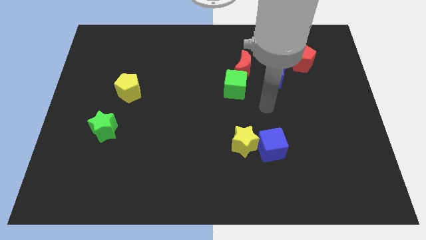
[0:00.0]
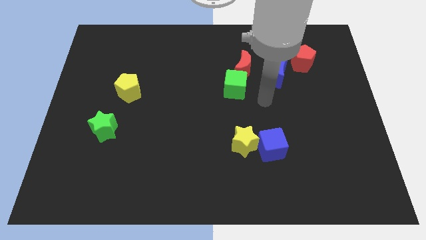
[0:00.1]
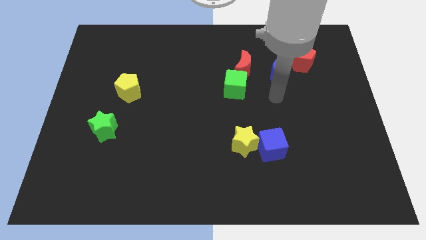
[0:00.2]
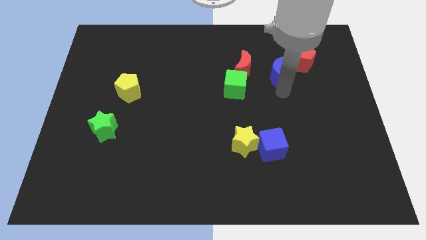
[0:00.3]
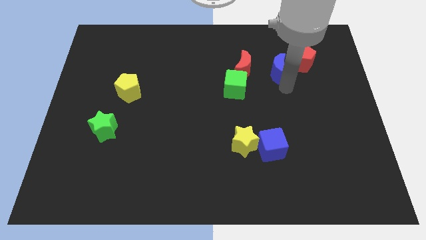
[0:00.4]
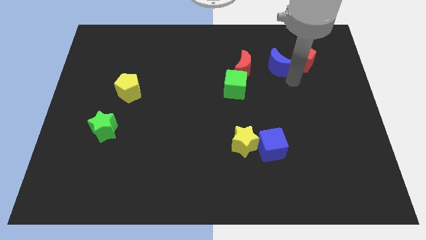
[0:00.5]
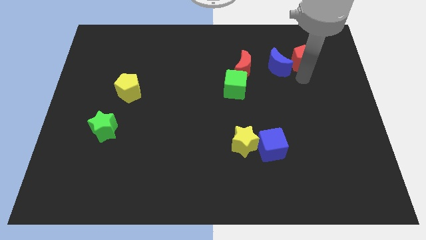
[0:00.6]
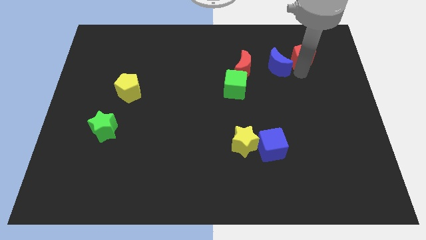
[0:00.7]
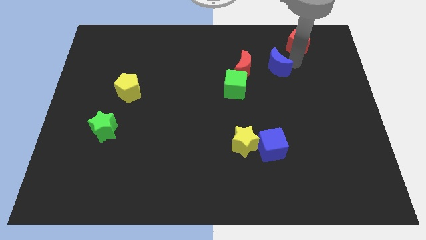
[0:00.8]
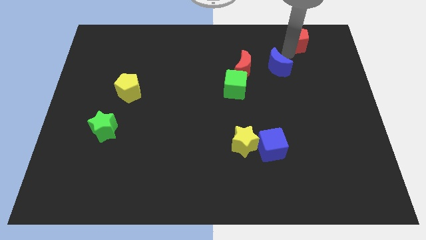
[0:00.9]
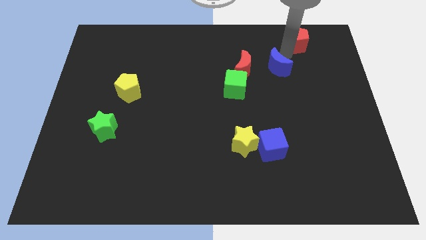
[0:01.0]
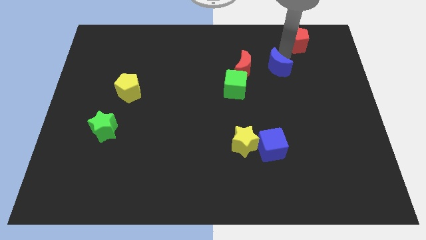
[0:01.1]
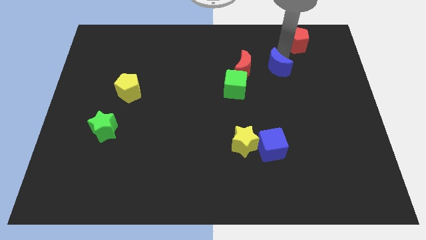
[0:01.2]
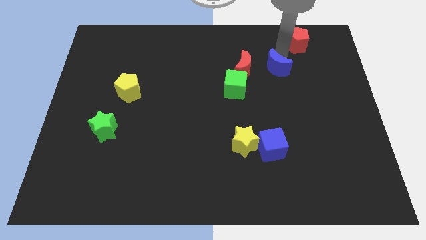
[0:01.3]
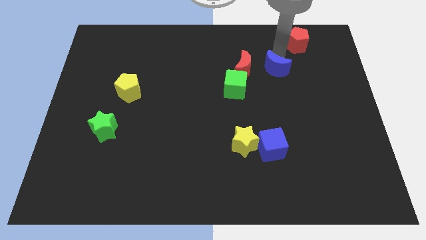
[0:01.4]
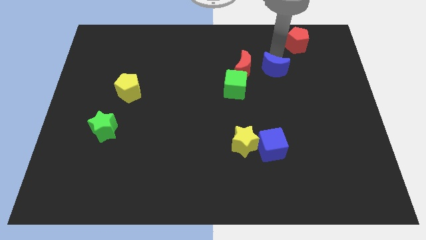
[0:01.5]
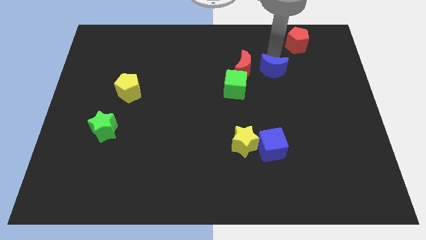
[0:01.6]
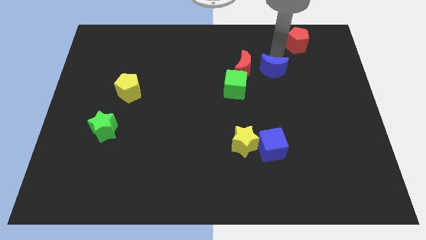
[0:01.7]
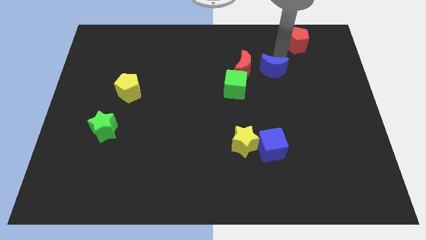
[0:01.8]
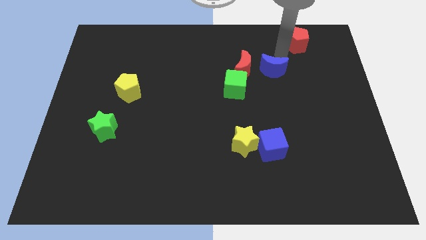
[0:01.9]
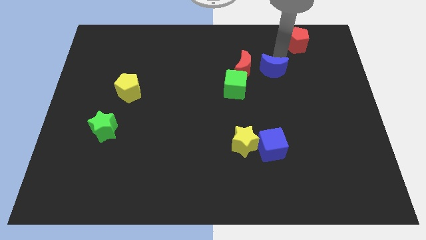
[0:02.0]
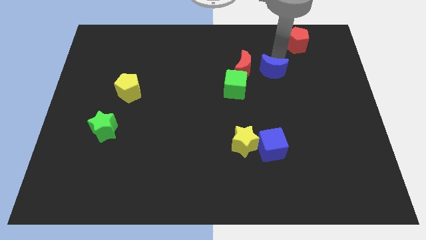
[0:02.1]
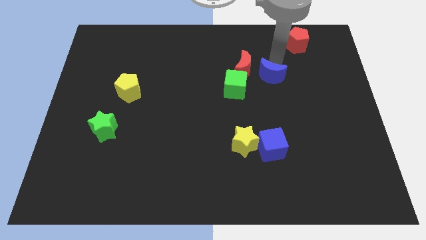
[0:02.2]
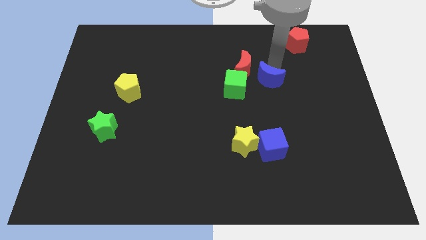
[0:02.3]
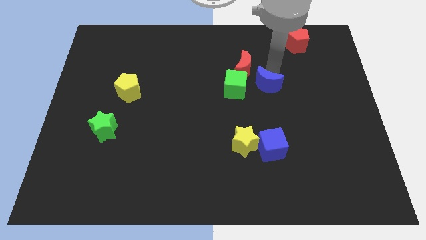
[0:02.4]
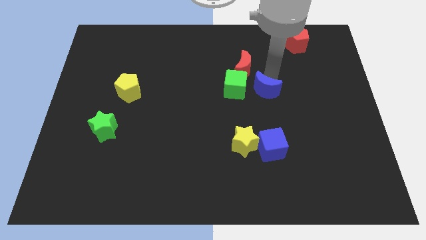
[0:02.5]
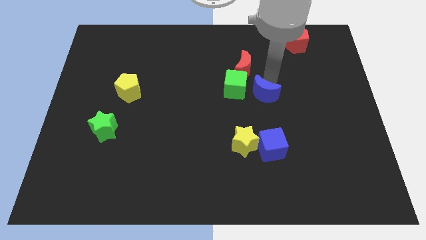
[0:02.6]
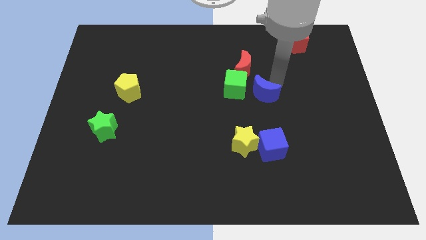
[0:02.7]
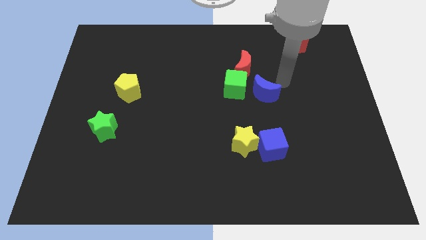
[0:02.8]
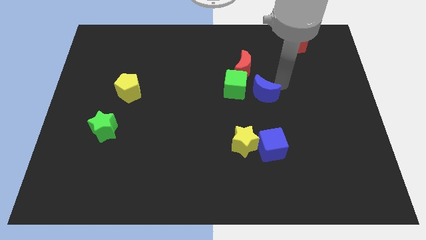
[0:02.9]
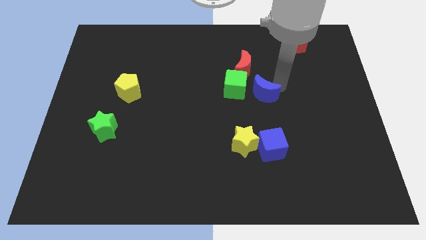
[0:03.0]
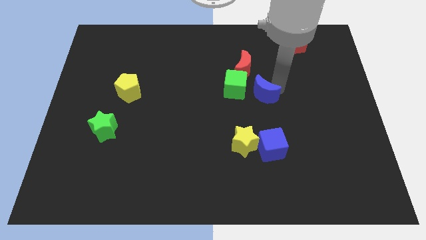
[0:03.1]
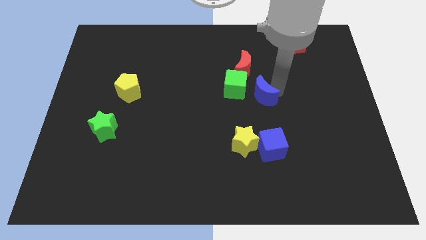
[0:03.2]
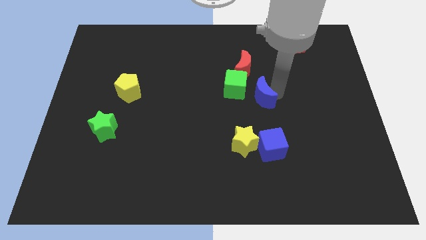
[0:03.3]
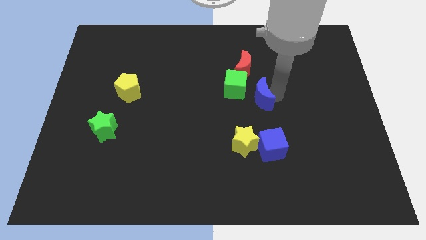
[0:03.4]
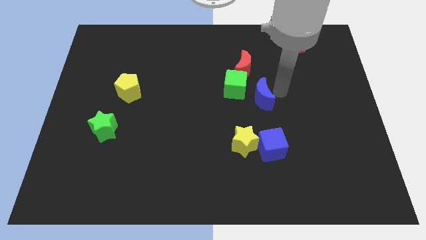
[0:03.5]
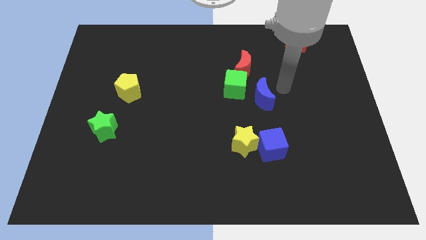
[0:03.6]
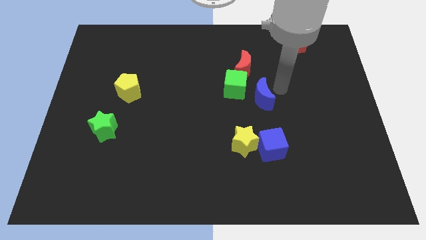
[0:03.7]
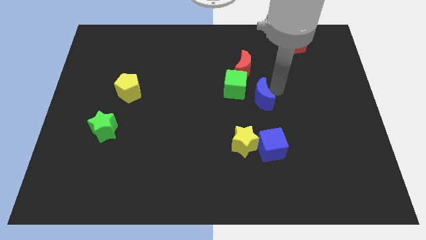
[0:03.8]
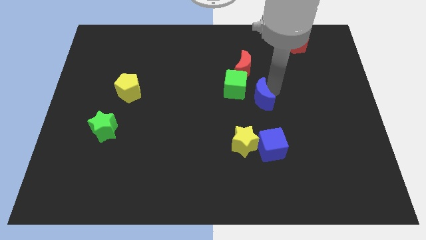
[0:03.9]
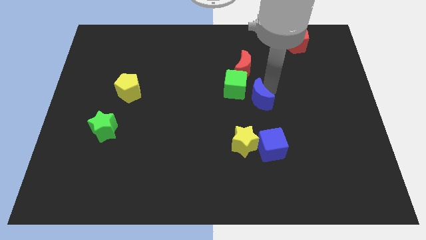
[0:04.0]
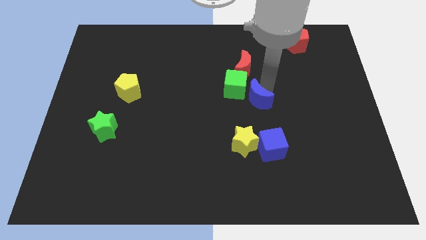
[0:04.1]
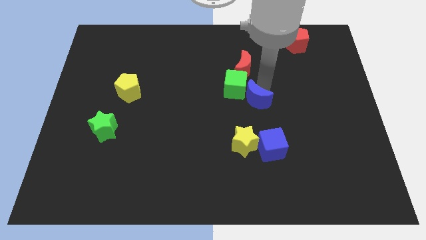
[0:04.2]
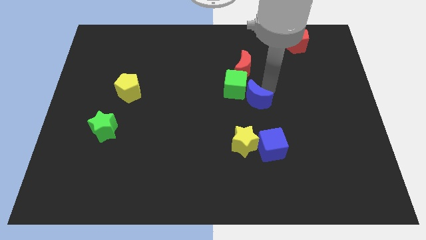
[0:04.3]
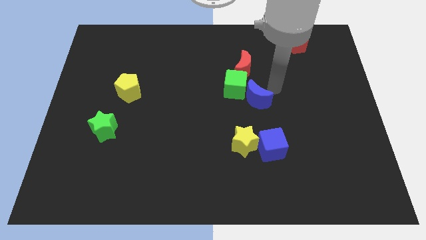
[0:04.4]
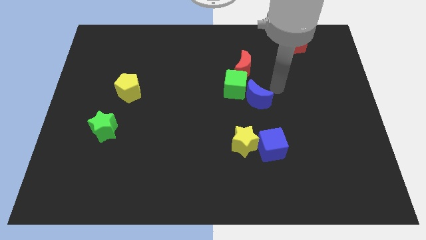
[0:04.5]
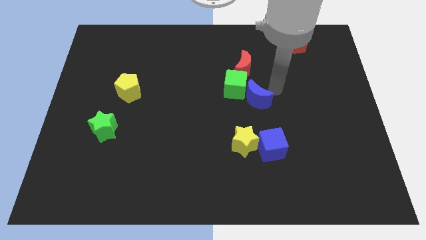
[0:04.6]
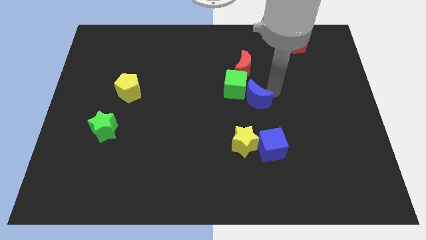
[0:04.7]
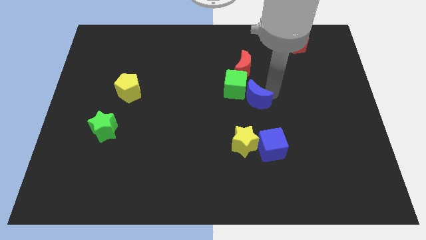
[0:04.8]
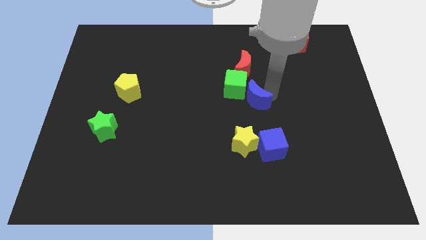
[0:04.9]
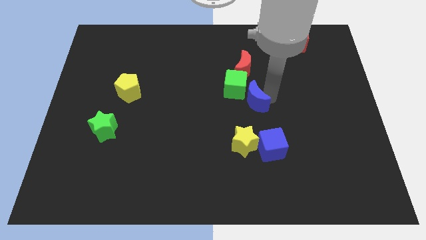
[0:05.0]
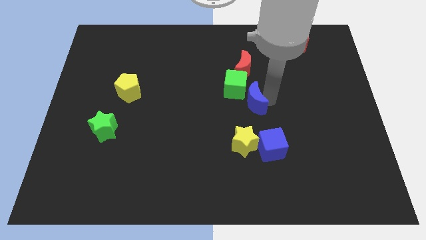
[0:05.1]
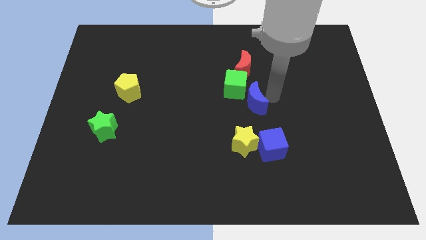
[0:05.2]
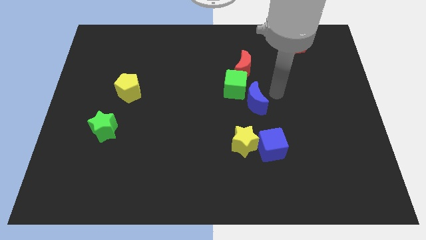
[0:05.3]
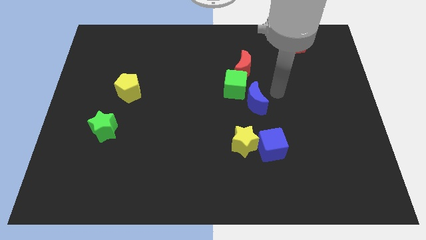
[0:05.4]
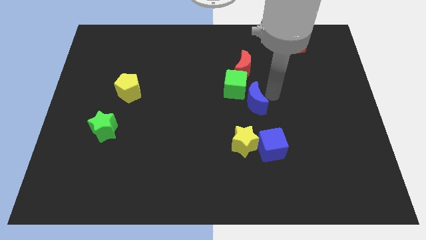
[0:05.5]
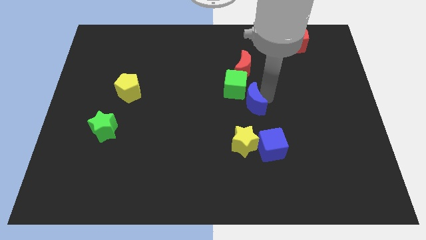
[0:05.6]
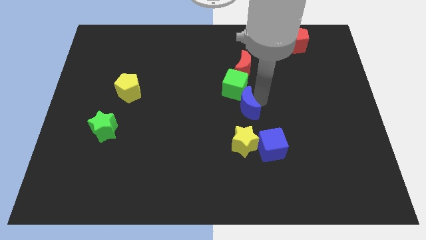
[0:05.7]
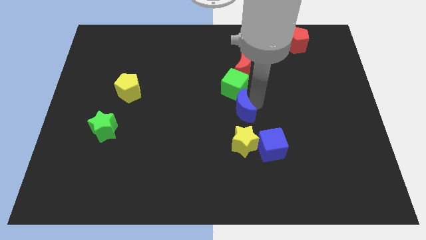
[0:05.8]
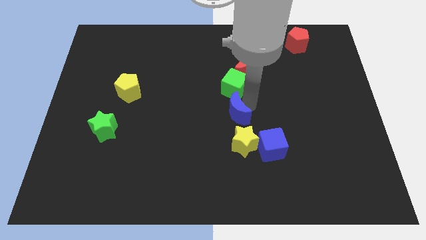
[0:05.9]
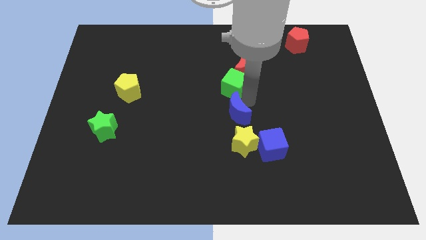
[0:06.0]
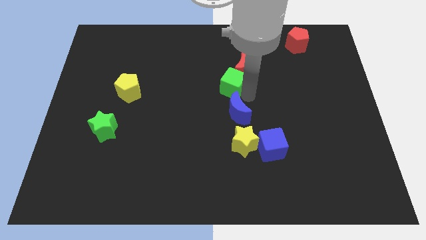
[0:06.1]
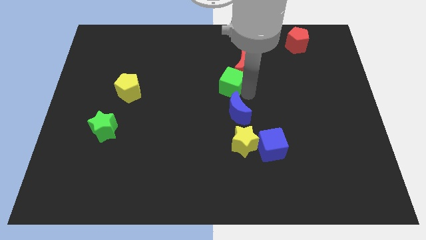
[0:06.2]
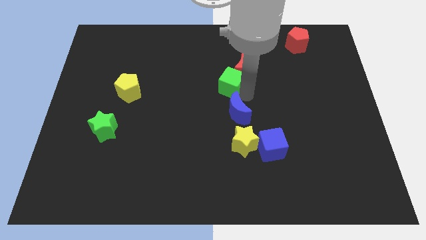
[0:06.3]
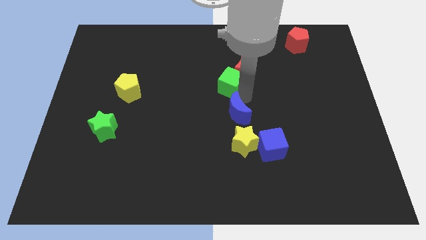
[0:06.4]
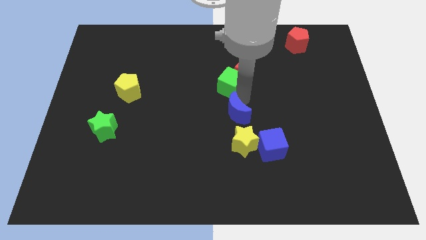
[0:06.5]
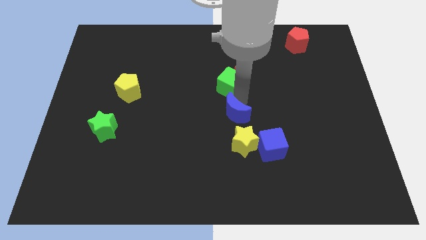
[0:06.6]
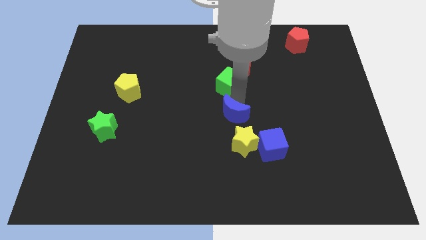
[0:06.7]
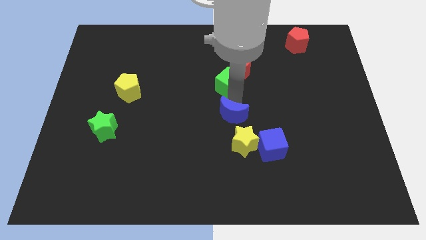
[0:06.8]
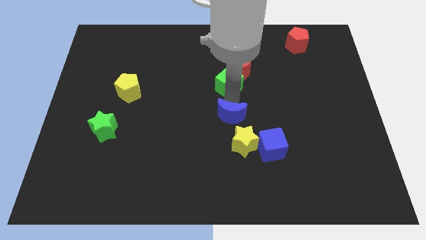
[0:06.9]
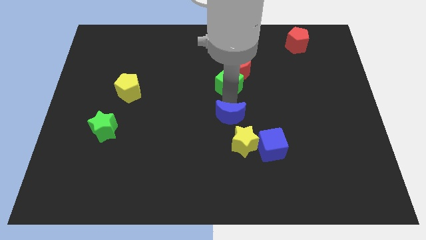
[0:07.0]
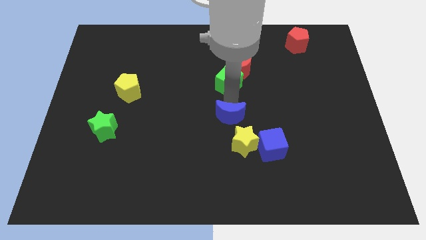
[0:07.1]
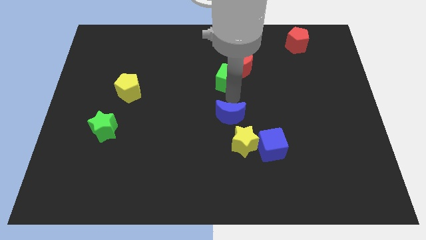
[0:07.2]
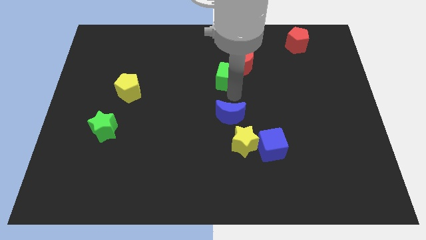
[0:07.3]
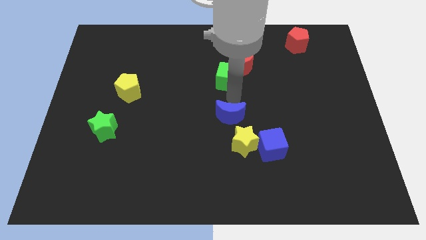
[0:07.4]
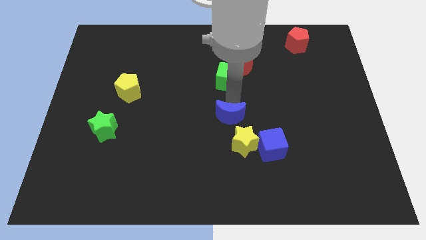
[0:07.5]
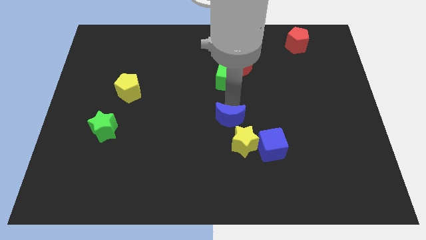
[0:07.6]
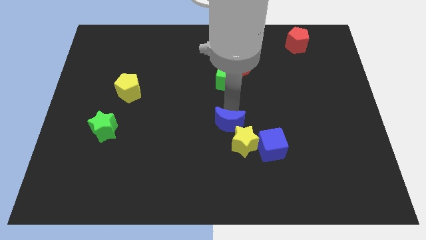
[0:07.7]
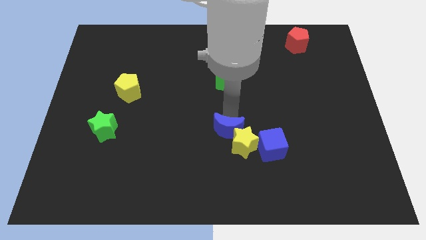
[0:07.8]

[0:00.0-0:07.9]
move the blue moon to the left of the blue cube
